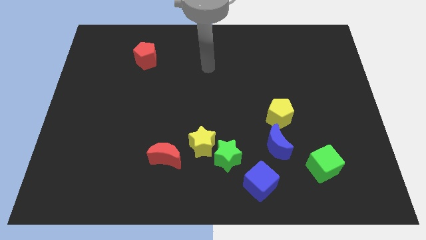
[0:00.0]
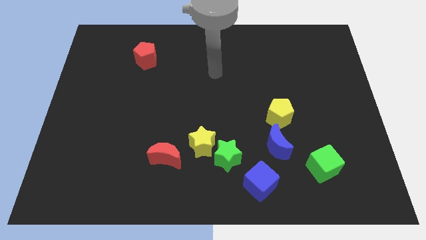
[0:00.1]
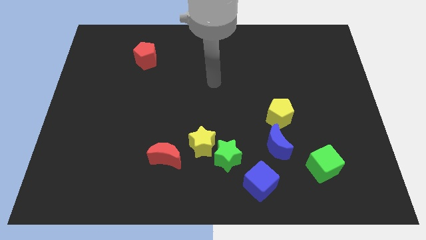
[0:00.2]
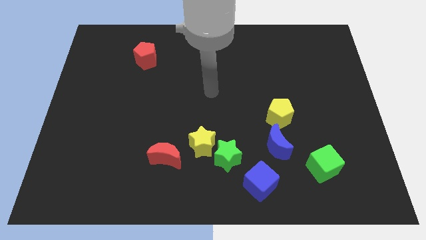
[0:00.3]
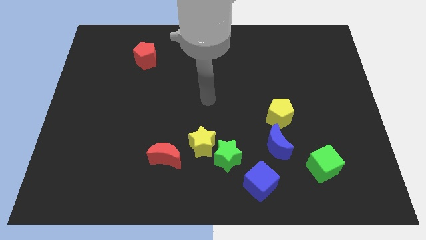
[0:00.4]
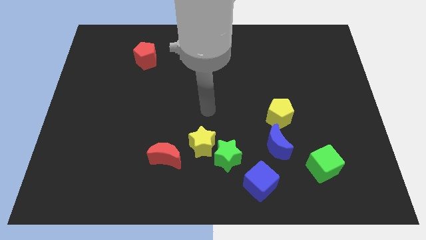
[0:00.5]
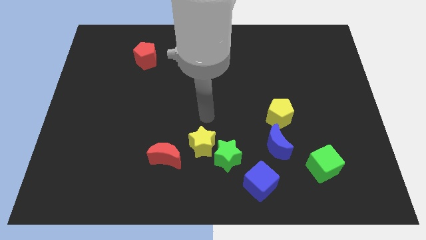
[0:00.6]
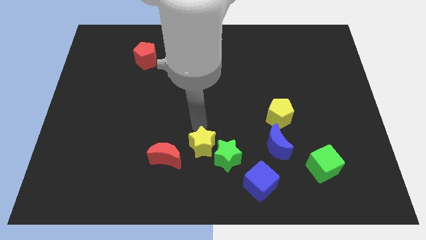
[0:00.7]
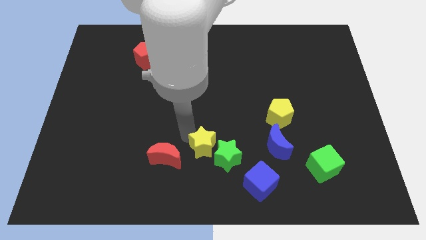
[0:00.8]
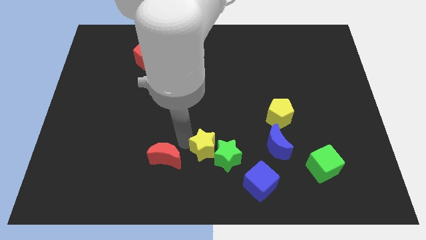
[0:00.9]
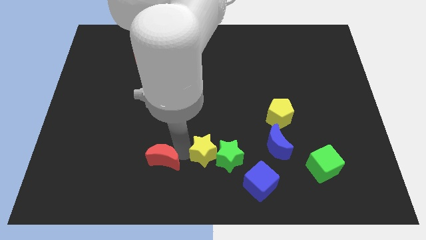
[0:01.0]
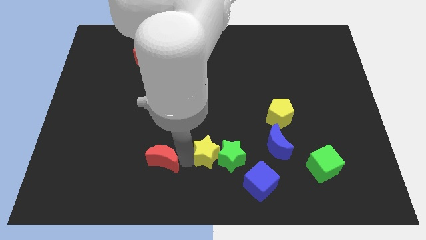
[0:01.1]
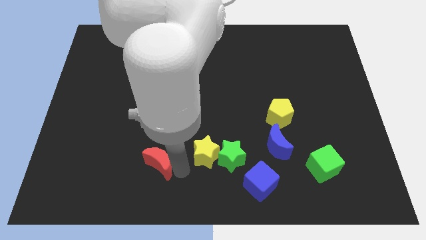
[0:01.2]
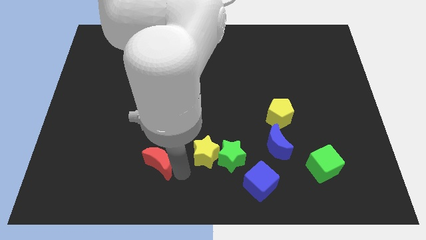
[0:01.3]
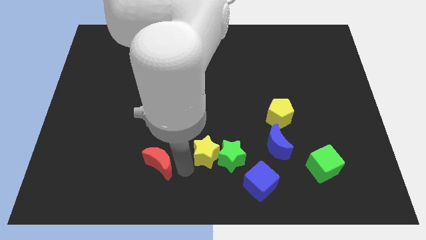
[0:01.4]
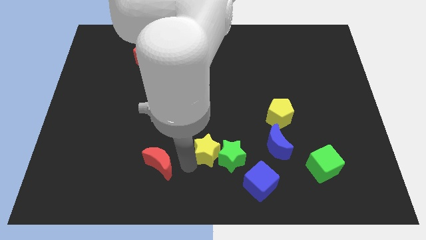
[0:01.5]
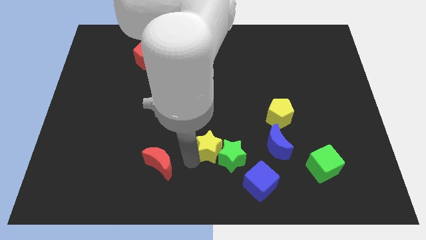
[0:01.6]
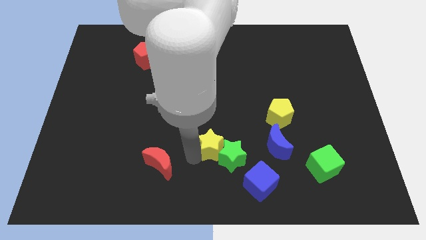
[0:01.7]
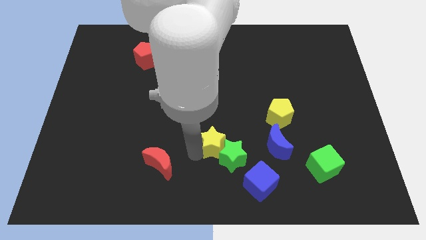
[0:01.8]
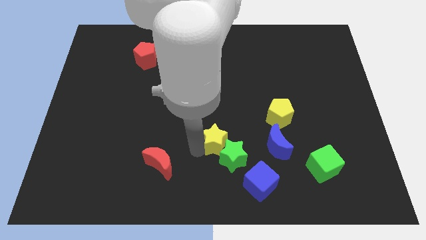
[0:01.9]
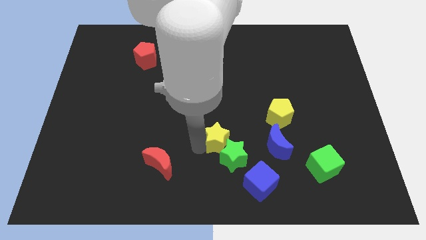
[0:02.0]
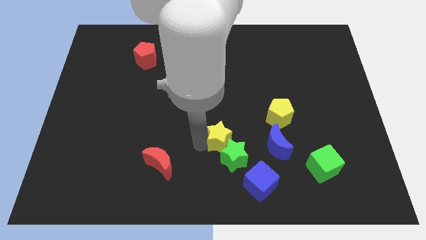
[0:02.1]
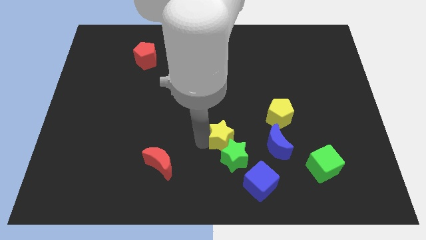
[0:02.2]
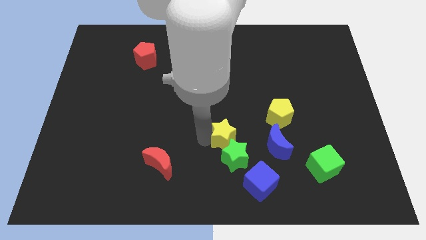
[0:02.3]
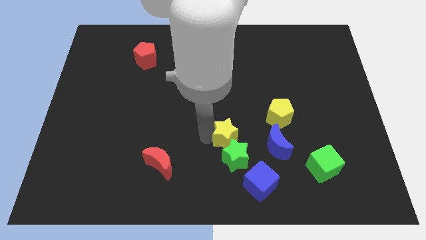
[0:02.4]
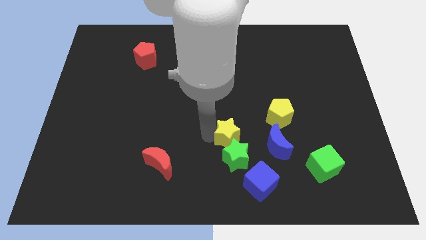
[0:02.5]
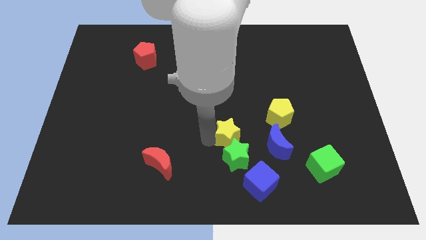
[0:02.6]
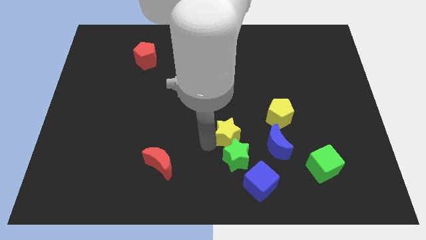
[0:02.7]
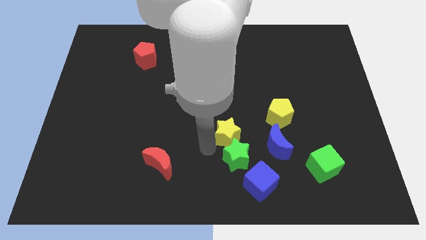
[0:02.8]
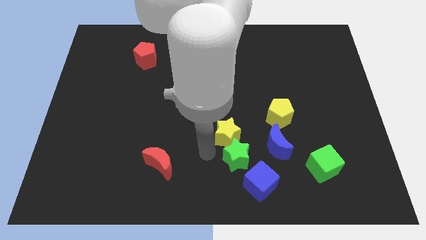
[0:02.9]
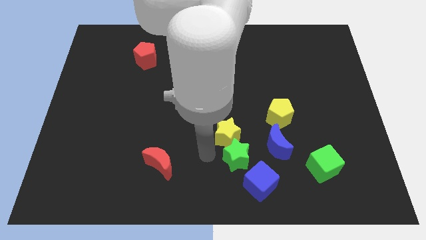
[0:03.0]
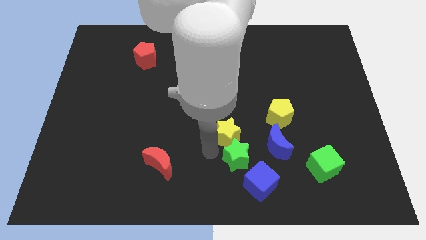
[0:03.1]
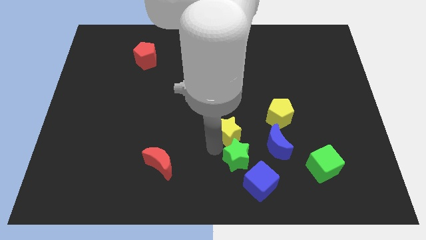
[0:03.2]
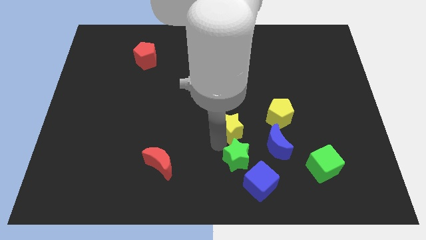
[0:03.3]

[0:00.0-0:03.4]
pull the yellow star apart from the green star and red moon

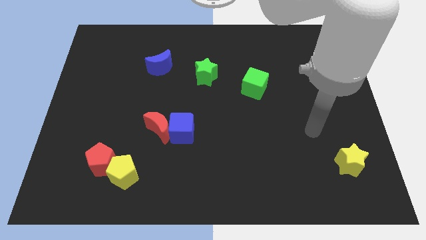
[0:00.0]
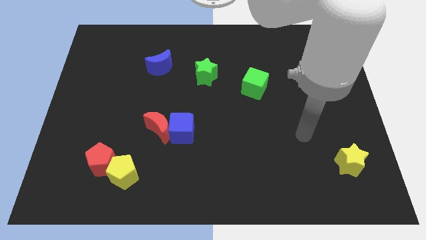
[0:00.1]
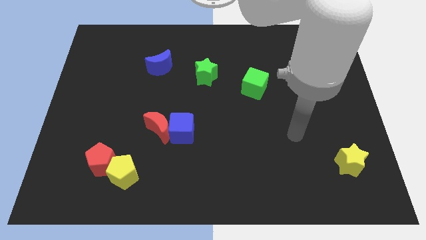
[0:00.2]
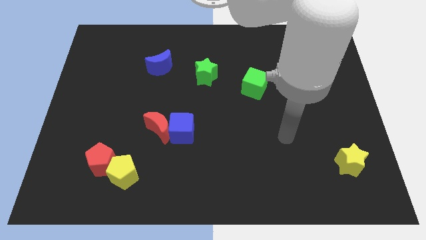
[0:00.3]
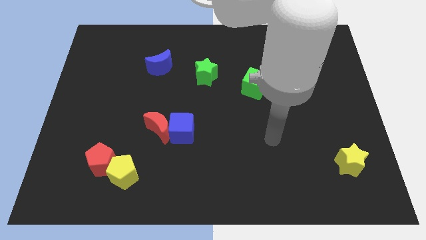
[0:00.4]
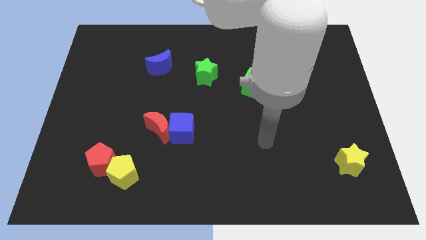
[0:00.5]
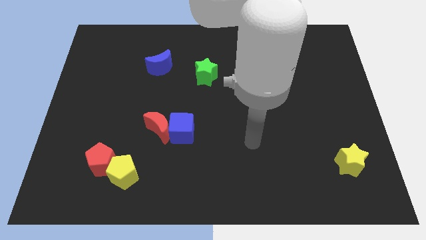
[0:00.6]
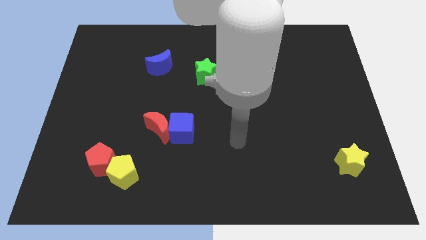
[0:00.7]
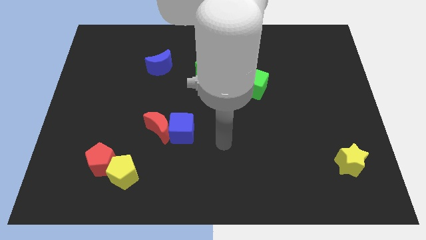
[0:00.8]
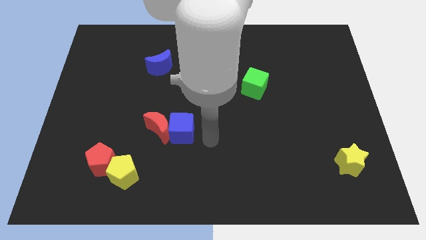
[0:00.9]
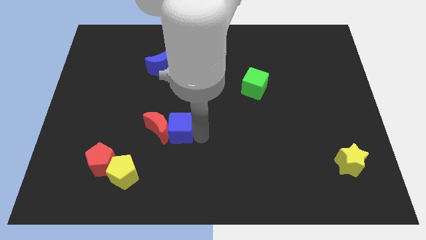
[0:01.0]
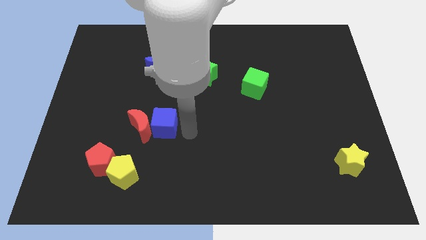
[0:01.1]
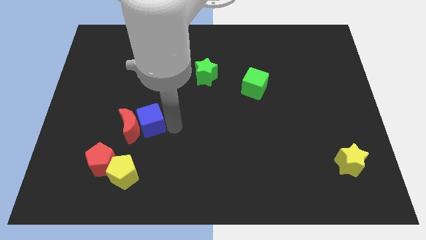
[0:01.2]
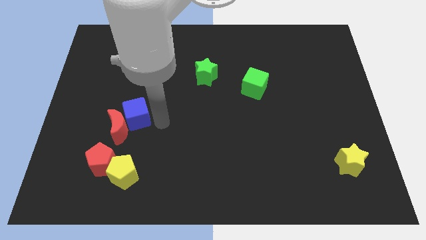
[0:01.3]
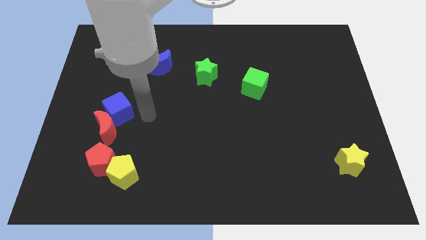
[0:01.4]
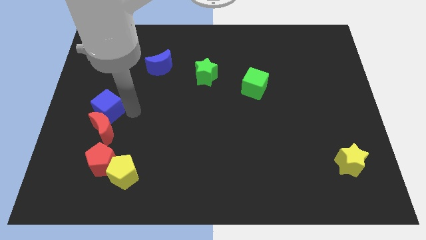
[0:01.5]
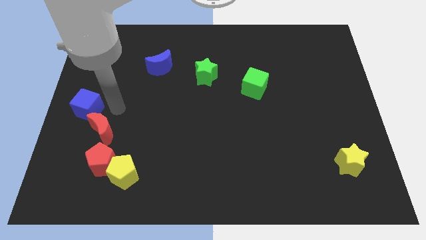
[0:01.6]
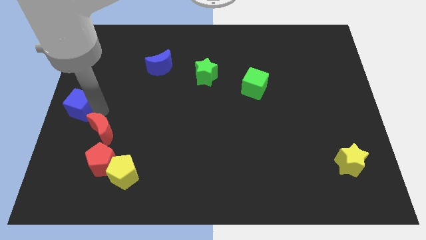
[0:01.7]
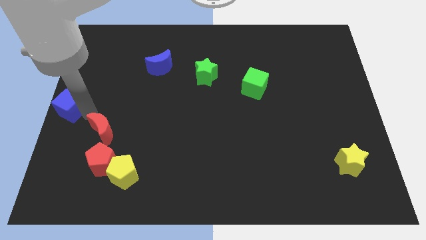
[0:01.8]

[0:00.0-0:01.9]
pull the red moon apart from the blue cube

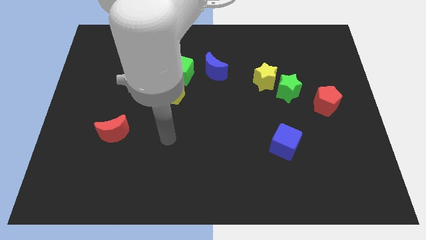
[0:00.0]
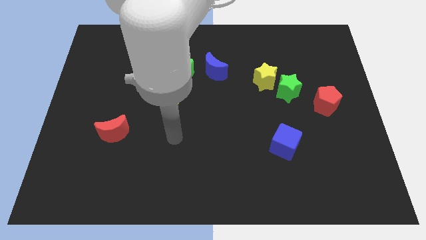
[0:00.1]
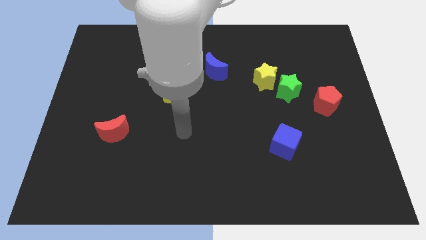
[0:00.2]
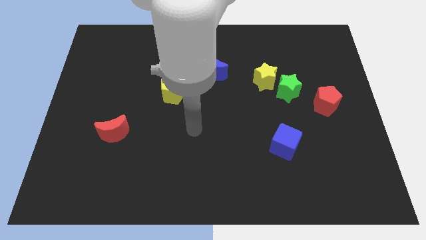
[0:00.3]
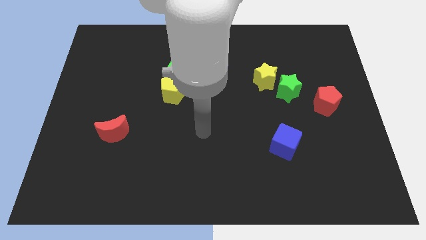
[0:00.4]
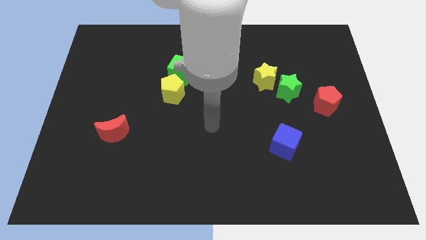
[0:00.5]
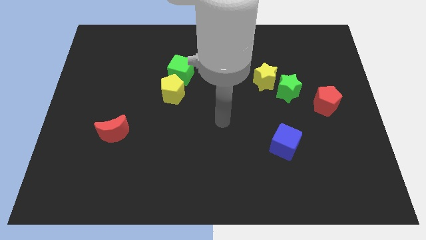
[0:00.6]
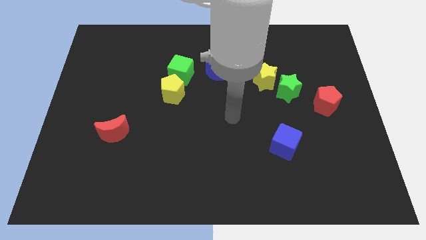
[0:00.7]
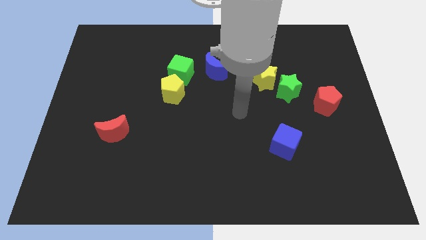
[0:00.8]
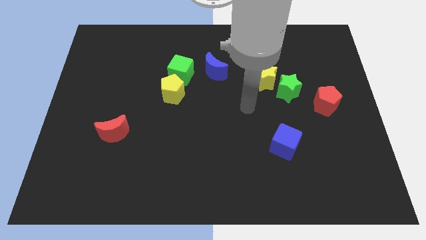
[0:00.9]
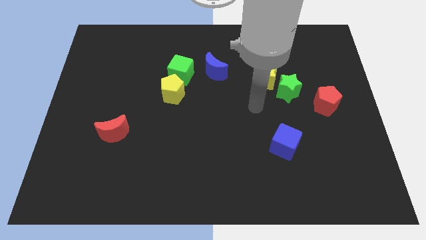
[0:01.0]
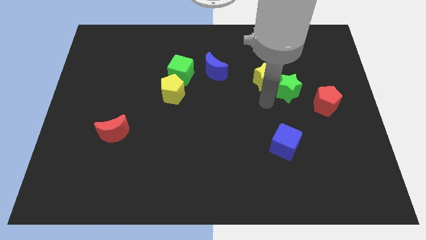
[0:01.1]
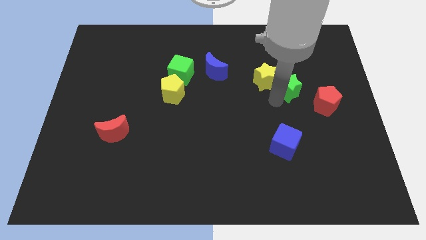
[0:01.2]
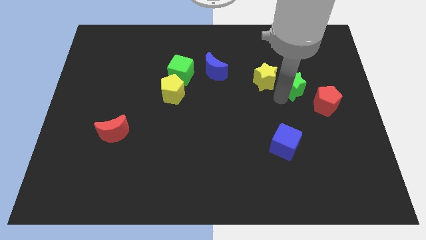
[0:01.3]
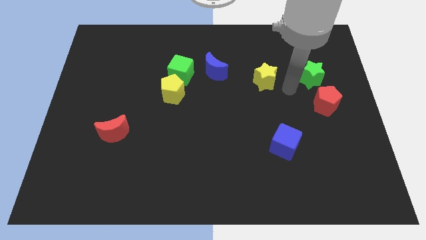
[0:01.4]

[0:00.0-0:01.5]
separate the yellow star from the green star

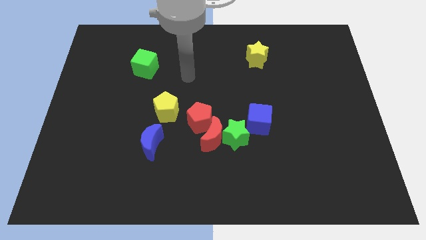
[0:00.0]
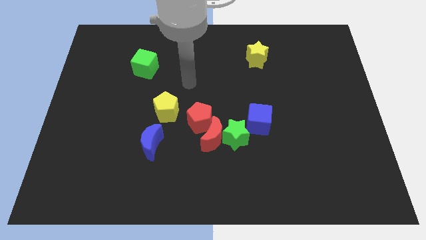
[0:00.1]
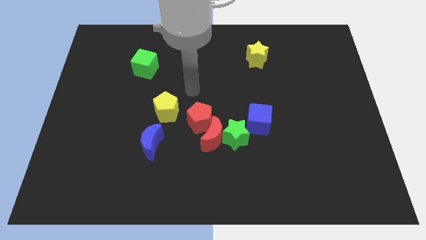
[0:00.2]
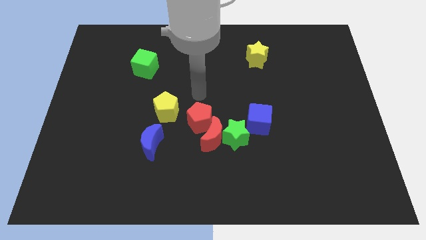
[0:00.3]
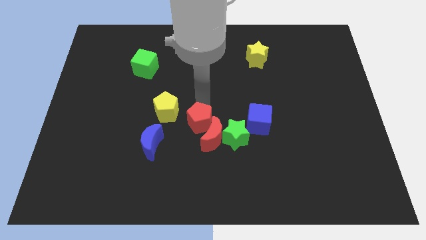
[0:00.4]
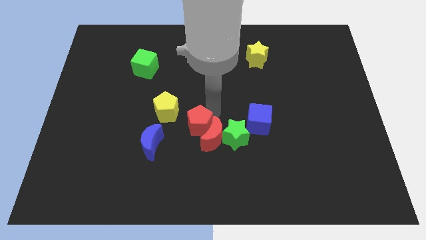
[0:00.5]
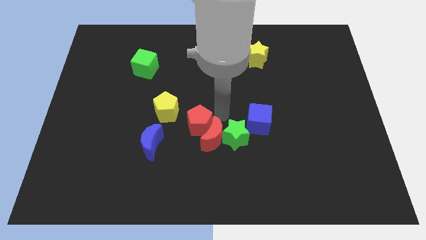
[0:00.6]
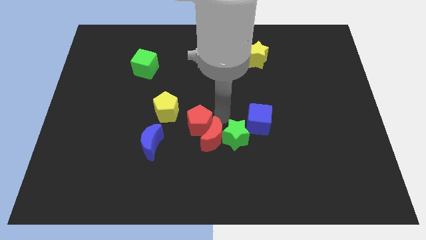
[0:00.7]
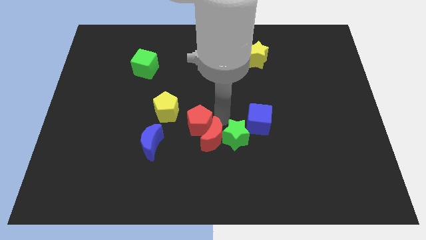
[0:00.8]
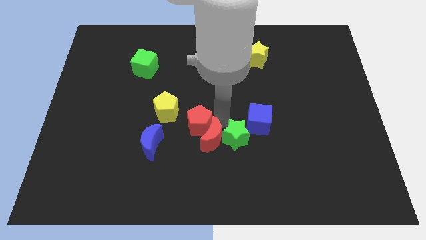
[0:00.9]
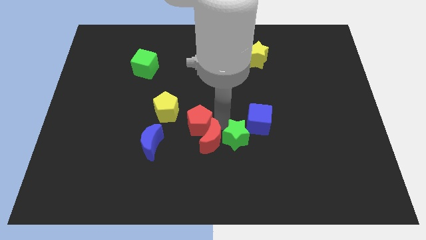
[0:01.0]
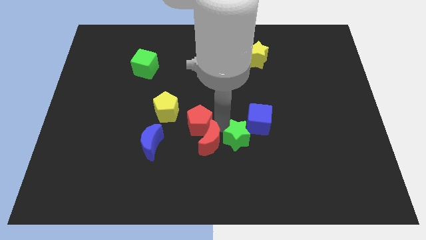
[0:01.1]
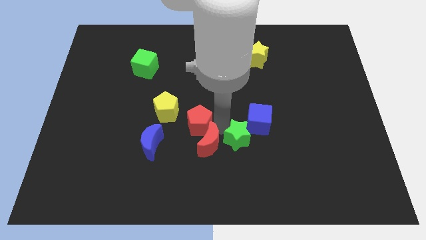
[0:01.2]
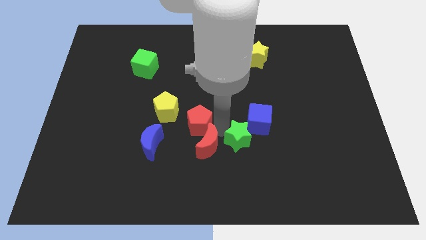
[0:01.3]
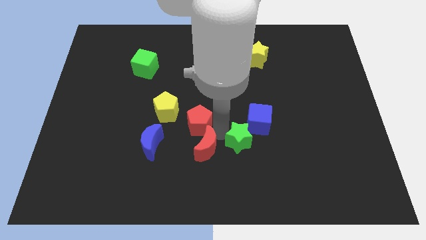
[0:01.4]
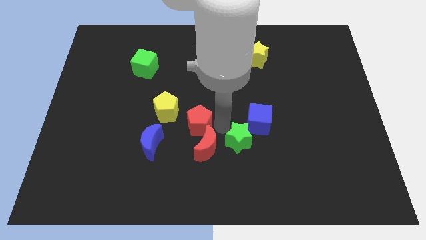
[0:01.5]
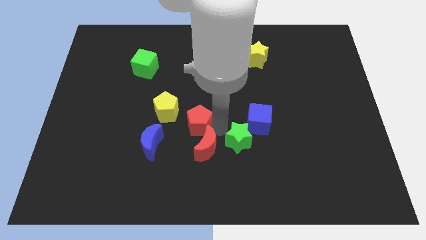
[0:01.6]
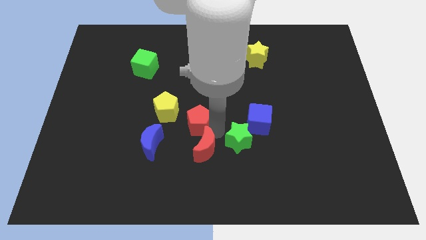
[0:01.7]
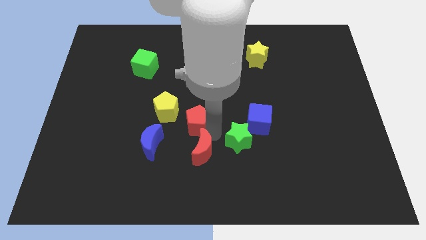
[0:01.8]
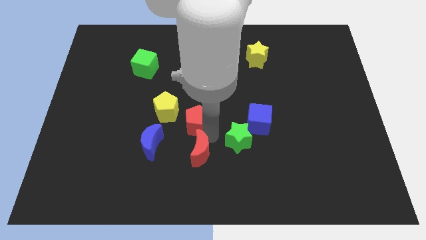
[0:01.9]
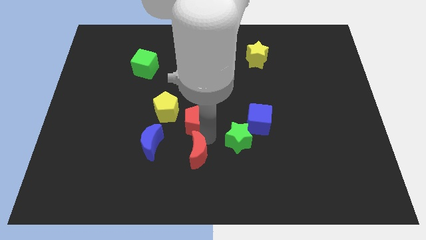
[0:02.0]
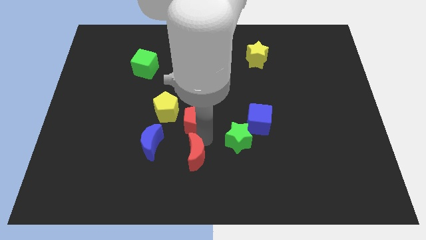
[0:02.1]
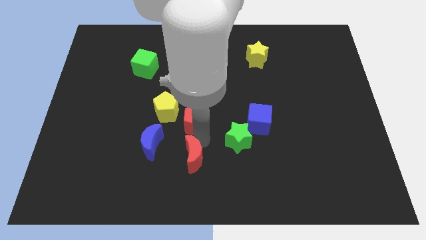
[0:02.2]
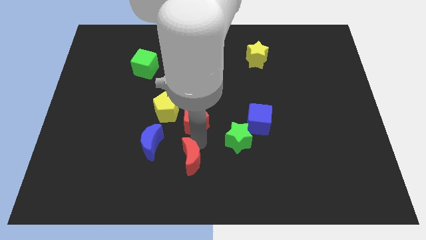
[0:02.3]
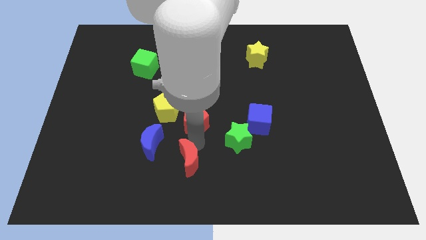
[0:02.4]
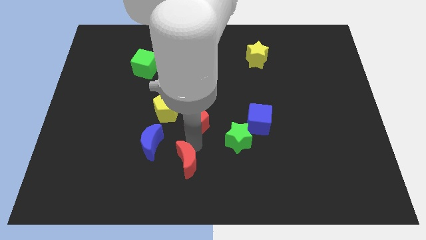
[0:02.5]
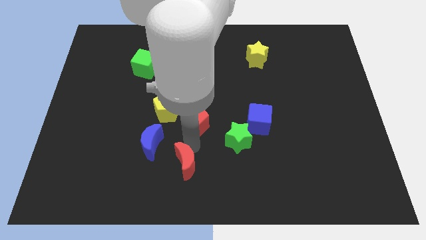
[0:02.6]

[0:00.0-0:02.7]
separate the red moon from the green star and red pentagon

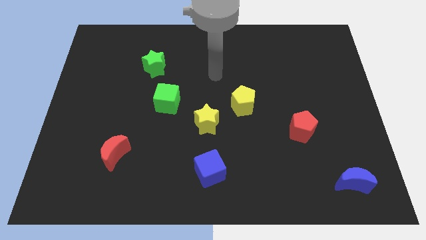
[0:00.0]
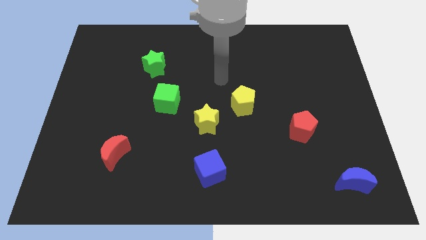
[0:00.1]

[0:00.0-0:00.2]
separate the yellow star from the yellow pentagon
